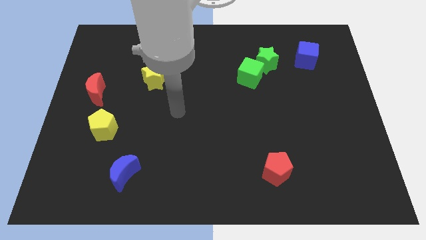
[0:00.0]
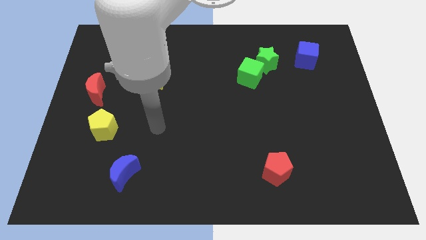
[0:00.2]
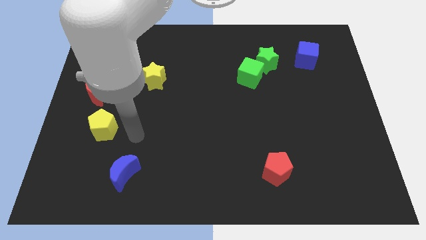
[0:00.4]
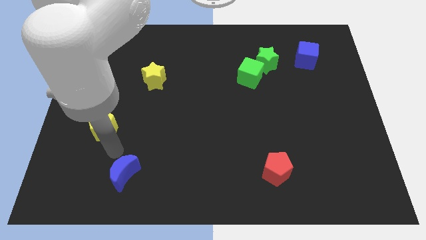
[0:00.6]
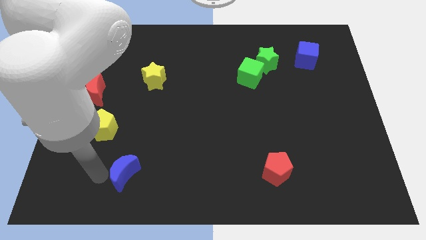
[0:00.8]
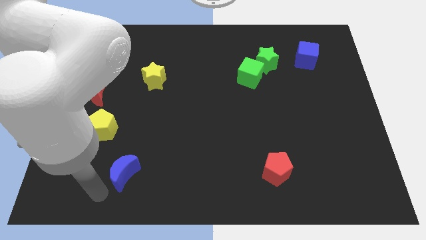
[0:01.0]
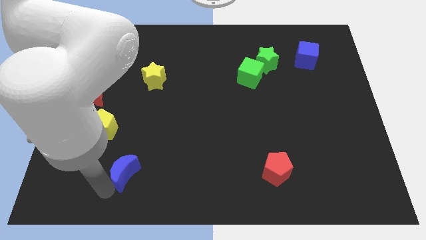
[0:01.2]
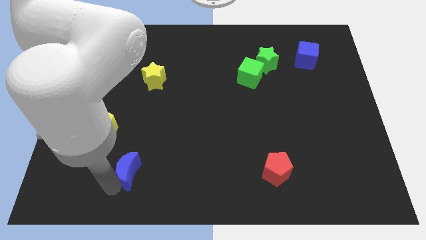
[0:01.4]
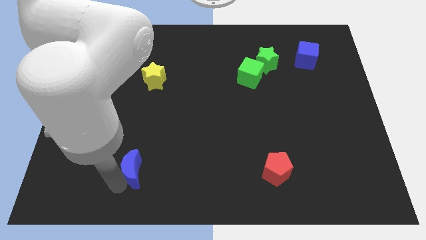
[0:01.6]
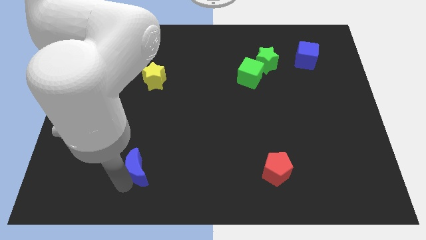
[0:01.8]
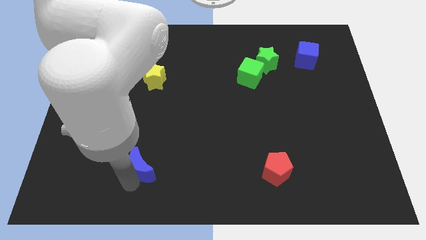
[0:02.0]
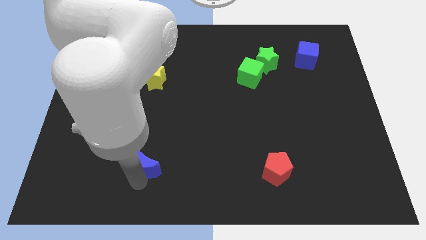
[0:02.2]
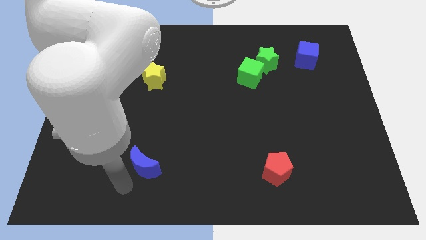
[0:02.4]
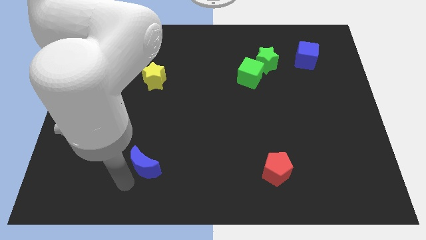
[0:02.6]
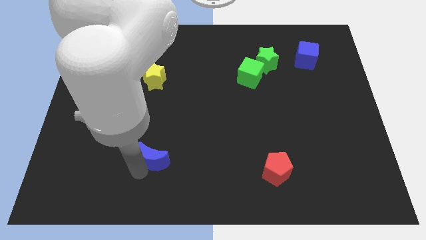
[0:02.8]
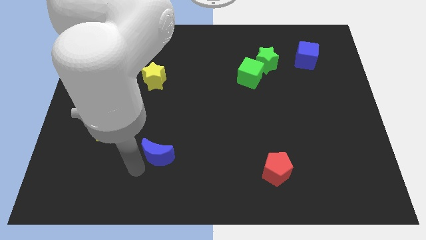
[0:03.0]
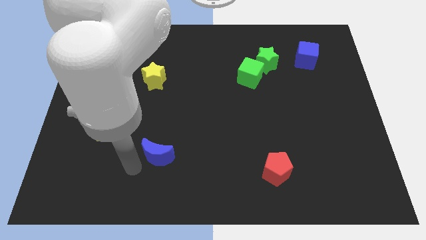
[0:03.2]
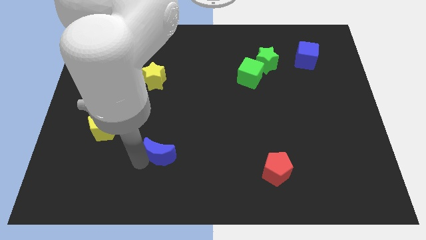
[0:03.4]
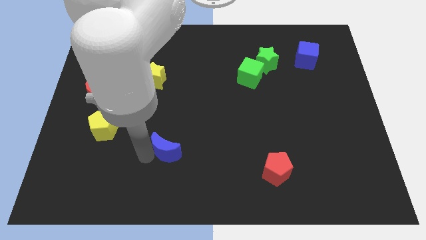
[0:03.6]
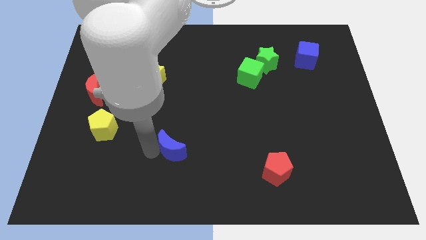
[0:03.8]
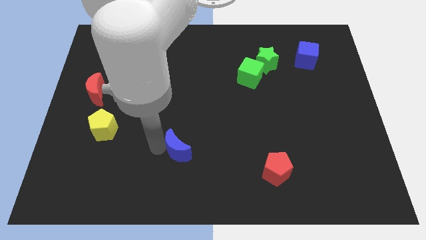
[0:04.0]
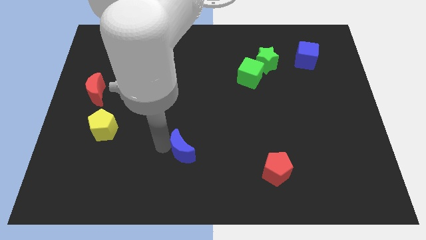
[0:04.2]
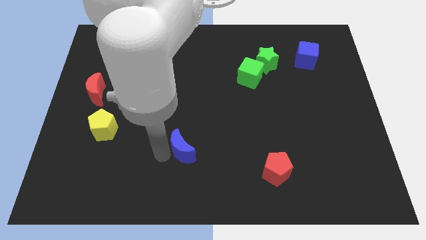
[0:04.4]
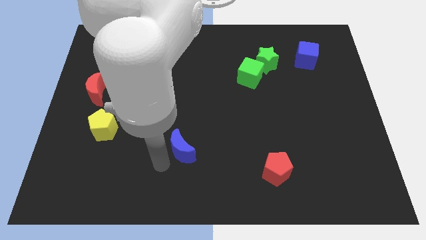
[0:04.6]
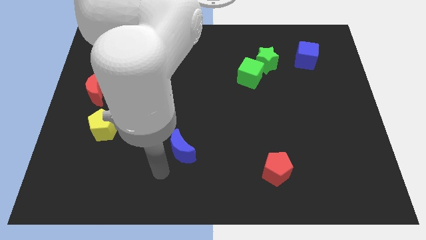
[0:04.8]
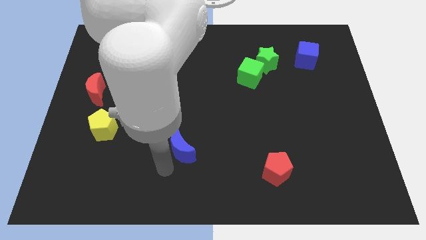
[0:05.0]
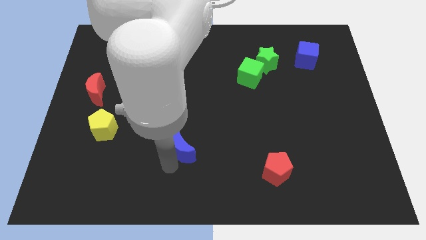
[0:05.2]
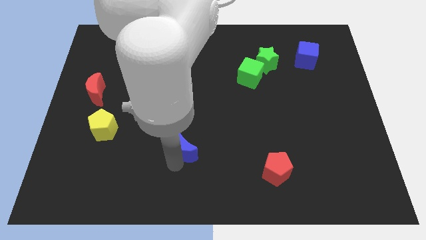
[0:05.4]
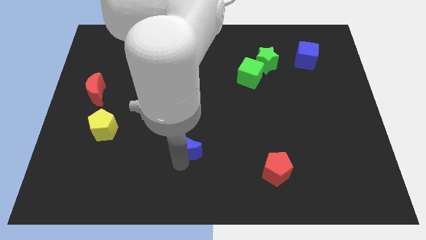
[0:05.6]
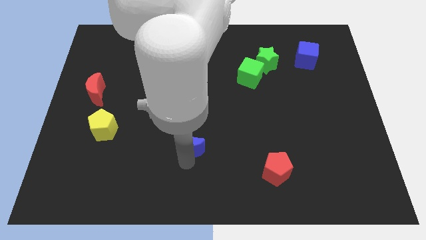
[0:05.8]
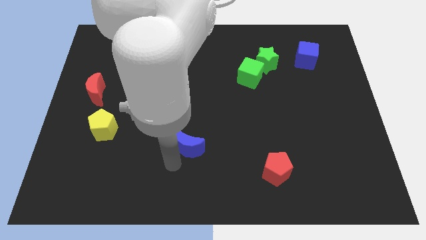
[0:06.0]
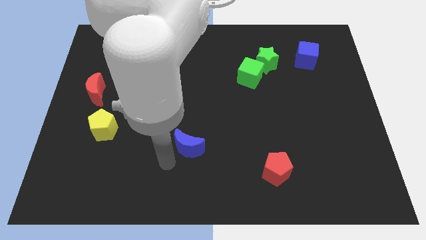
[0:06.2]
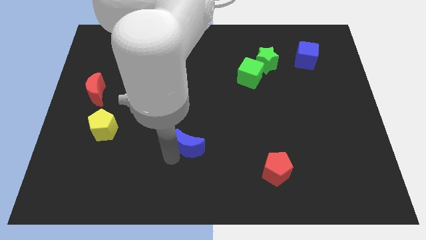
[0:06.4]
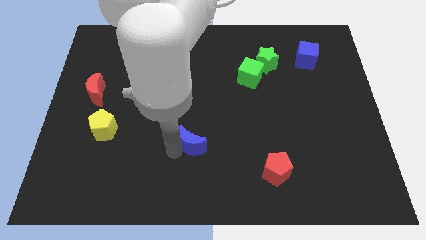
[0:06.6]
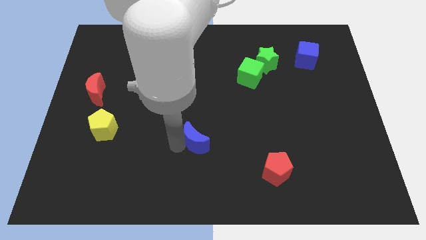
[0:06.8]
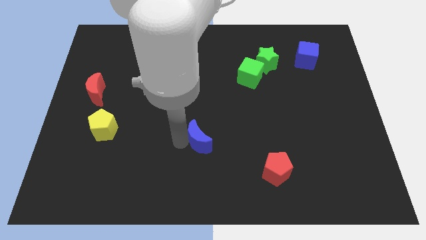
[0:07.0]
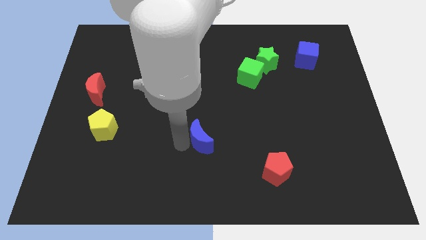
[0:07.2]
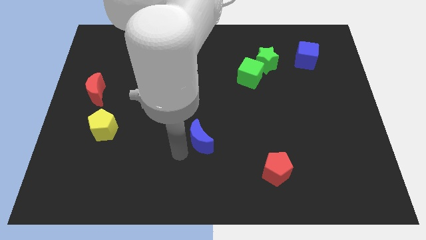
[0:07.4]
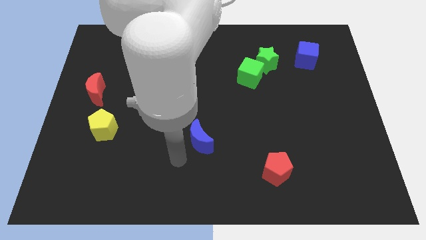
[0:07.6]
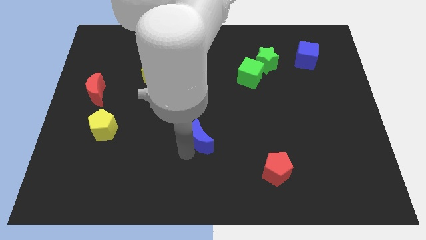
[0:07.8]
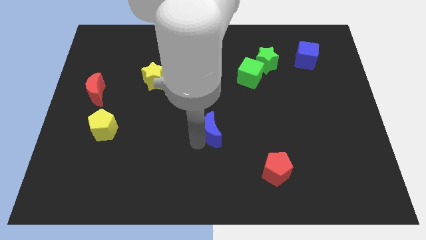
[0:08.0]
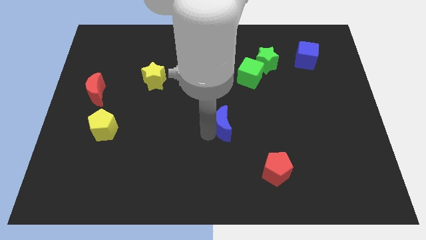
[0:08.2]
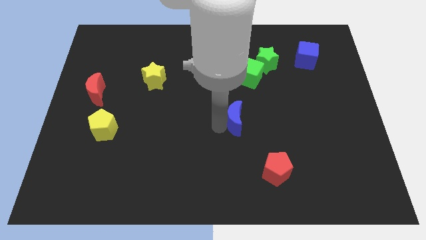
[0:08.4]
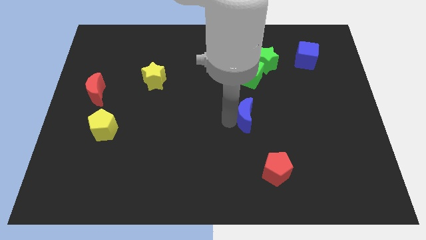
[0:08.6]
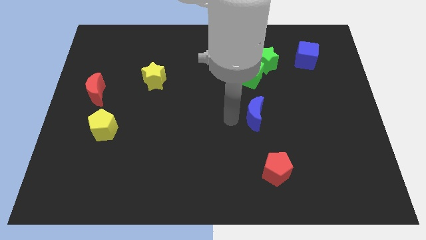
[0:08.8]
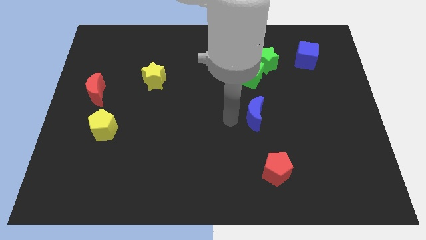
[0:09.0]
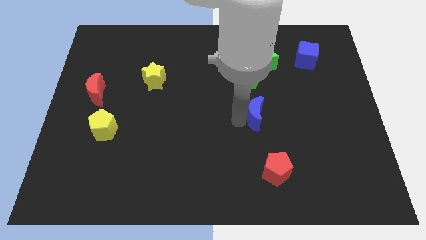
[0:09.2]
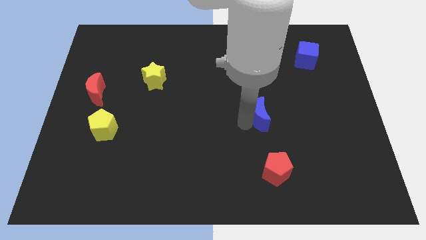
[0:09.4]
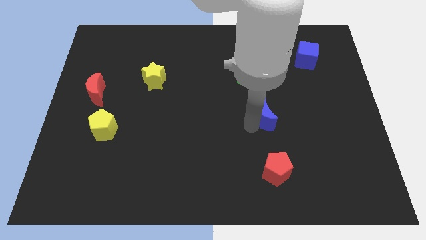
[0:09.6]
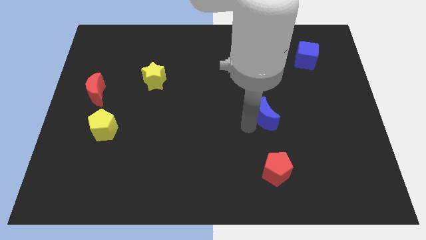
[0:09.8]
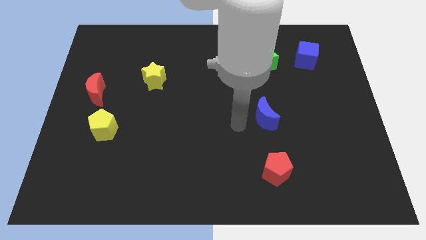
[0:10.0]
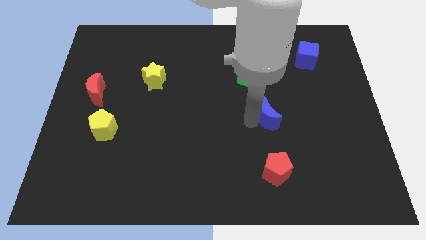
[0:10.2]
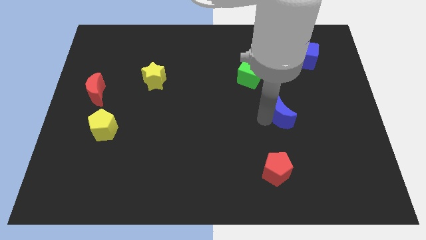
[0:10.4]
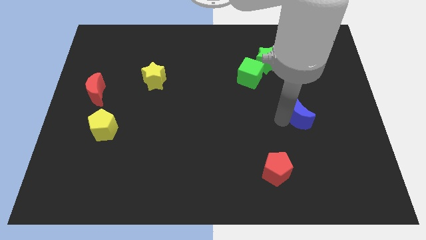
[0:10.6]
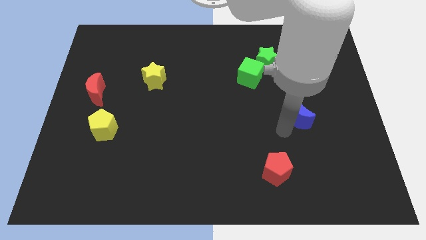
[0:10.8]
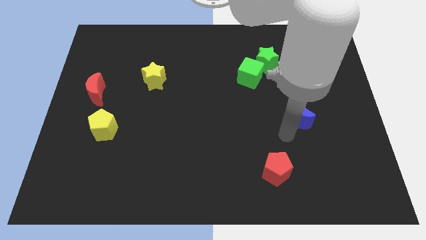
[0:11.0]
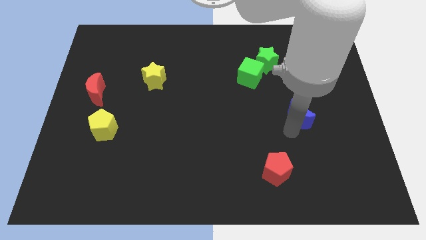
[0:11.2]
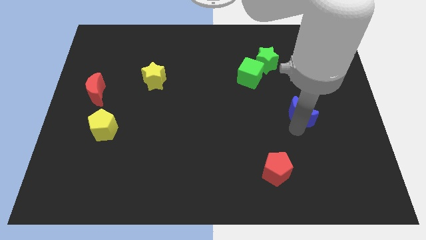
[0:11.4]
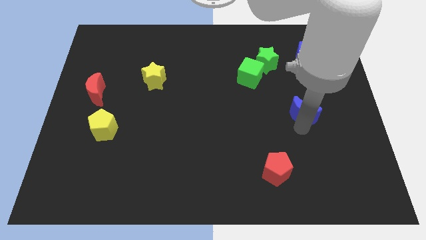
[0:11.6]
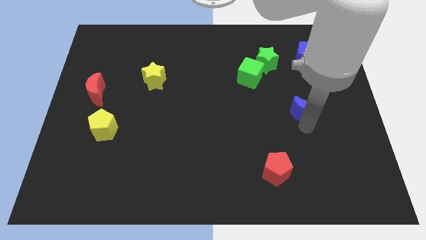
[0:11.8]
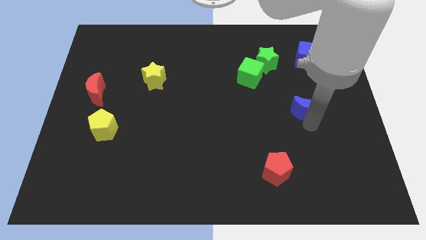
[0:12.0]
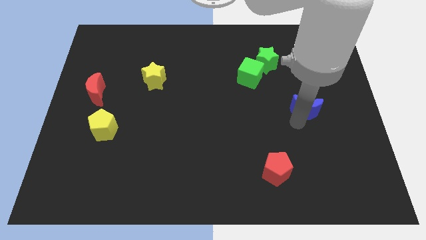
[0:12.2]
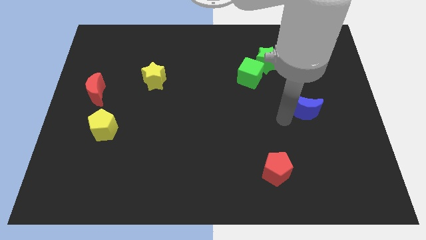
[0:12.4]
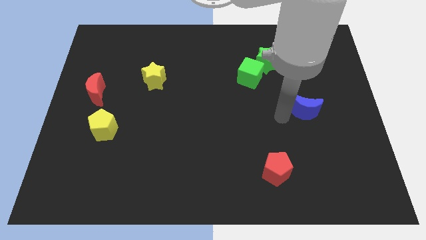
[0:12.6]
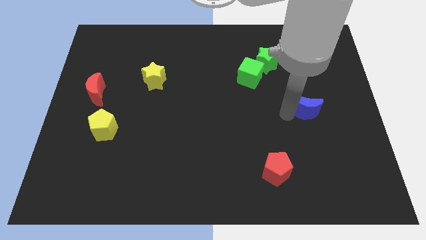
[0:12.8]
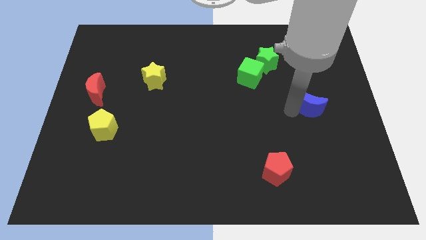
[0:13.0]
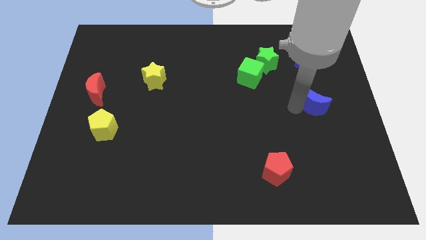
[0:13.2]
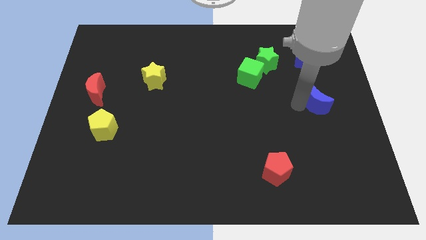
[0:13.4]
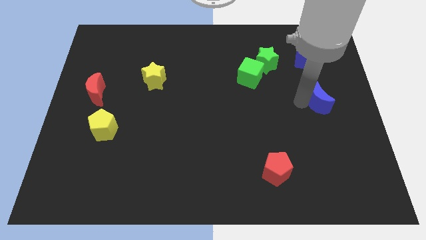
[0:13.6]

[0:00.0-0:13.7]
put the blue moon to the right side

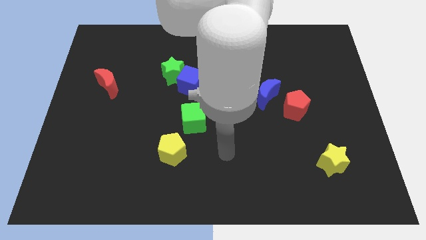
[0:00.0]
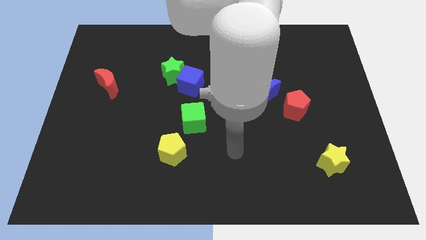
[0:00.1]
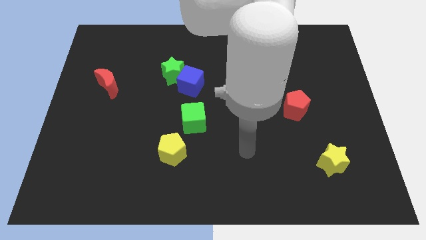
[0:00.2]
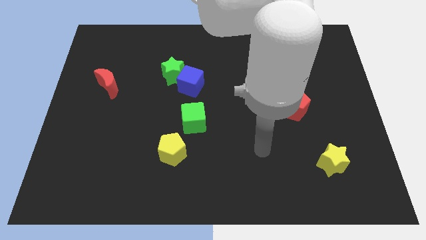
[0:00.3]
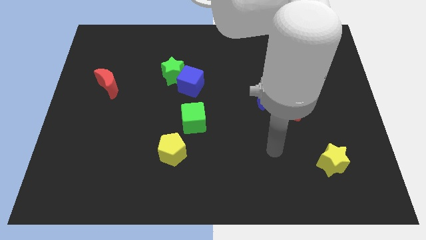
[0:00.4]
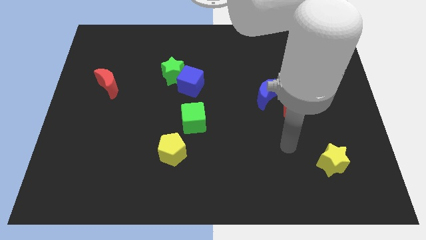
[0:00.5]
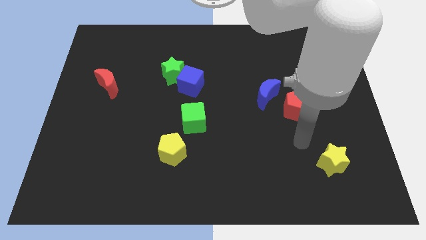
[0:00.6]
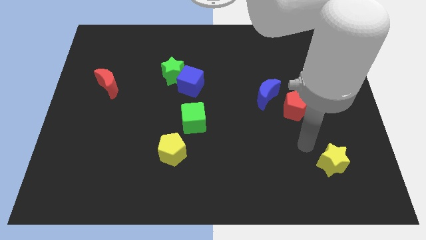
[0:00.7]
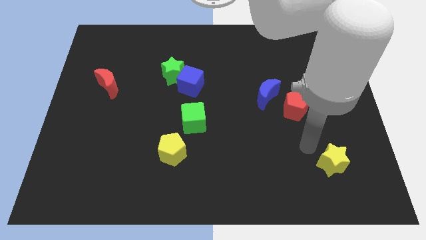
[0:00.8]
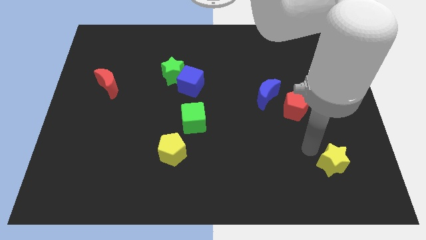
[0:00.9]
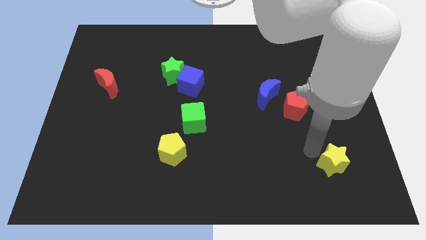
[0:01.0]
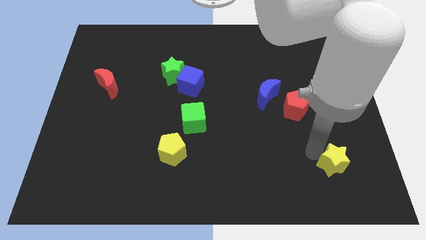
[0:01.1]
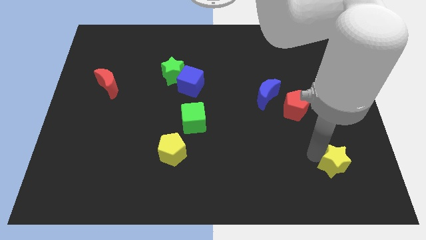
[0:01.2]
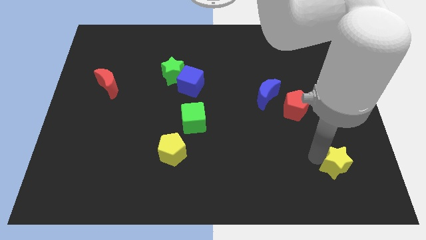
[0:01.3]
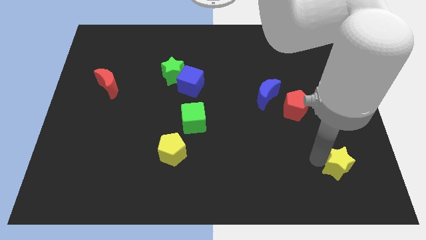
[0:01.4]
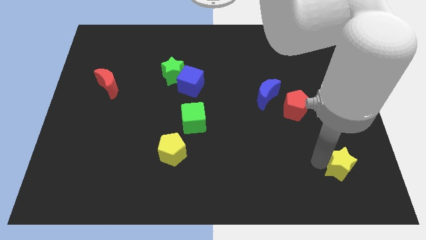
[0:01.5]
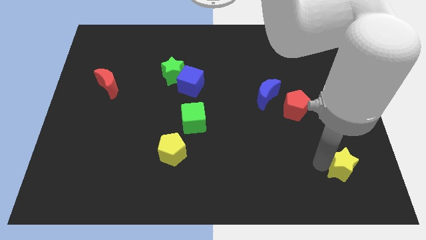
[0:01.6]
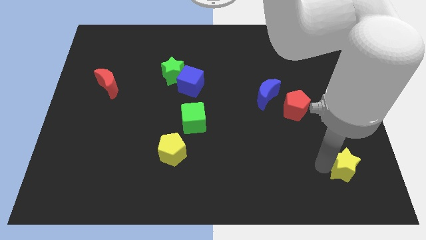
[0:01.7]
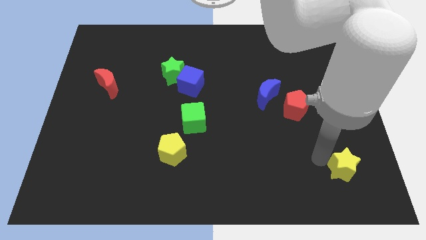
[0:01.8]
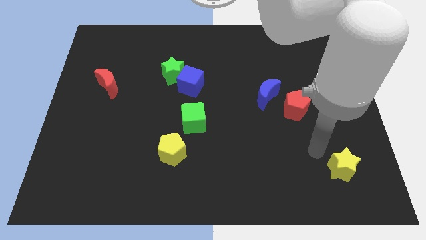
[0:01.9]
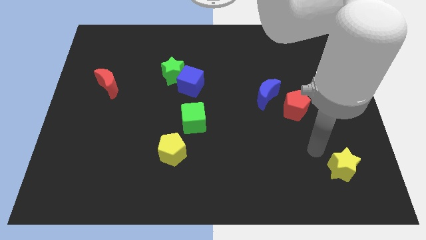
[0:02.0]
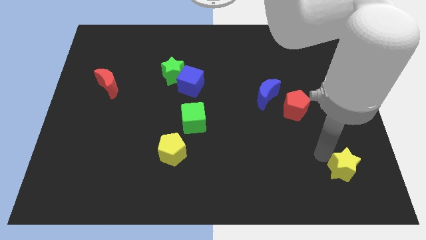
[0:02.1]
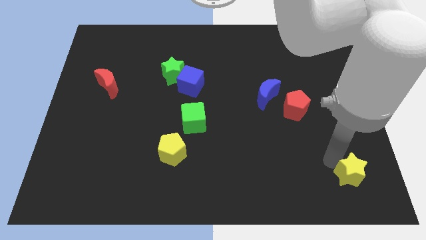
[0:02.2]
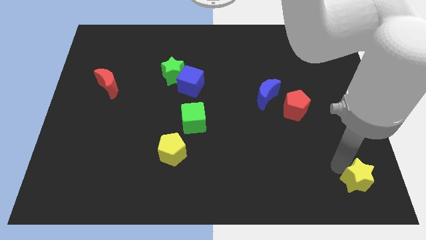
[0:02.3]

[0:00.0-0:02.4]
move the yellow star to the bottom right of the board
